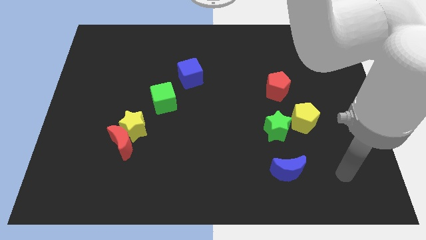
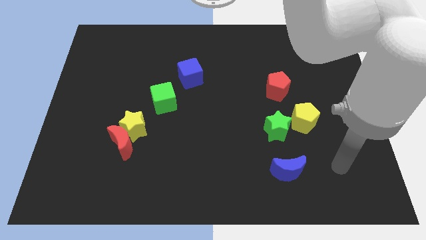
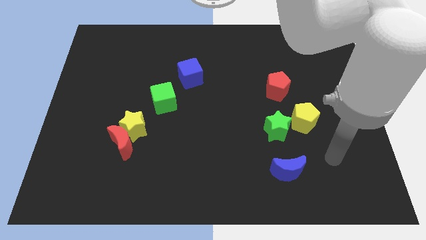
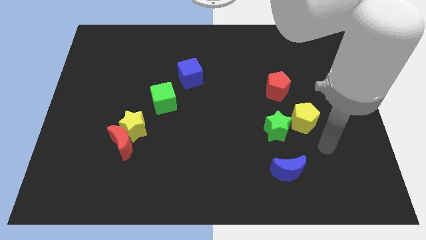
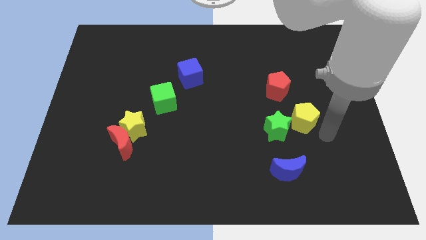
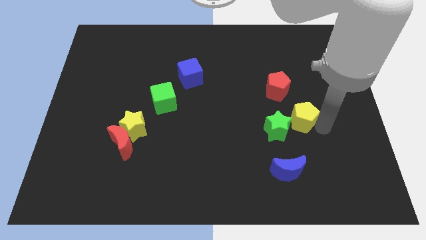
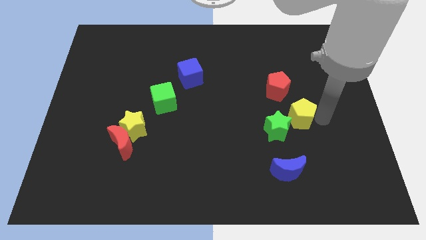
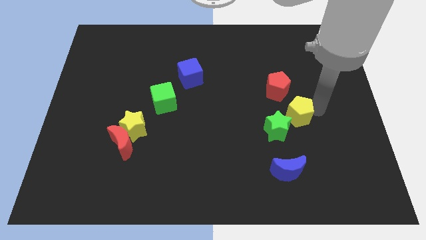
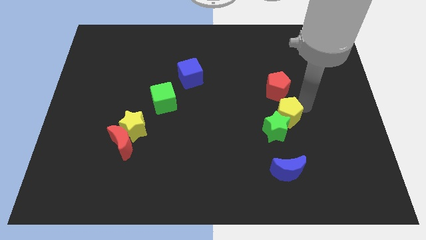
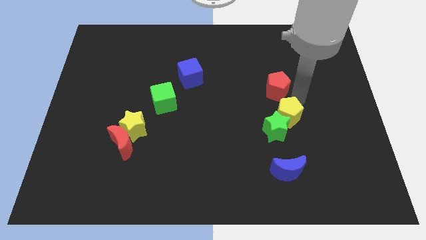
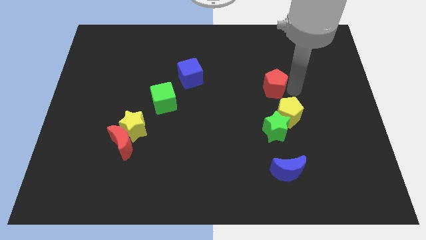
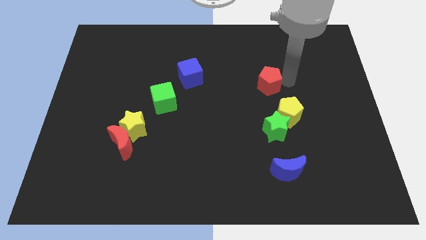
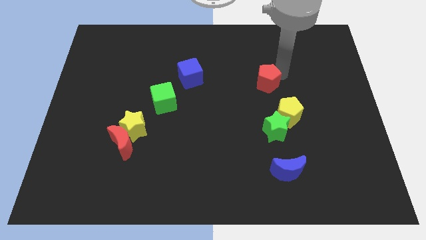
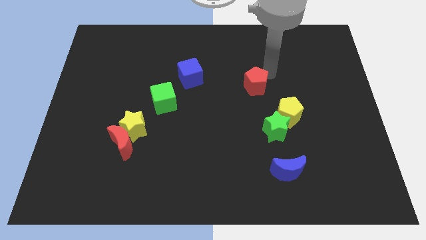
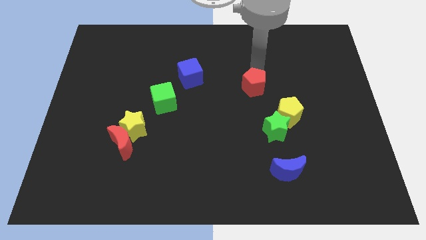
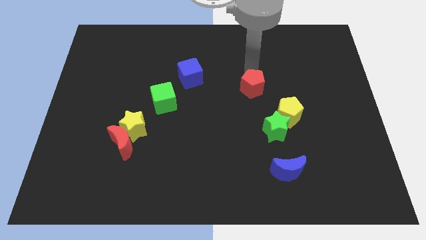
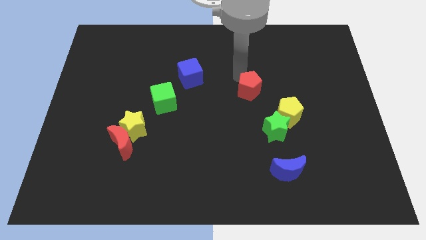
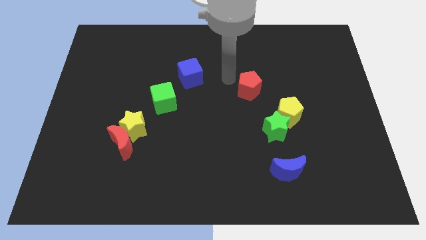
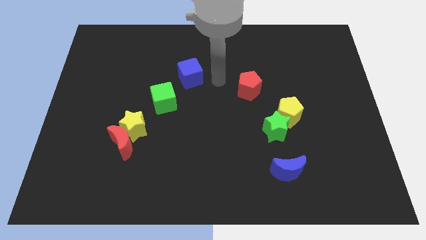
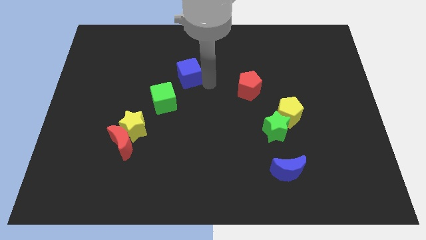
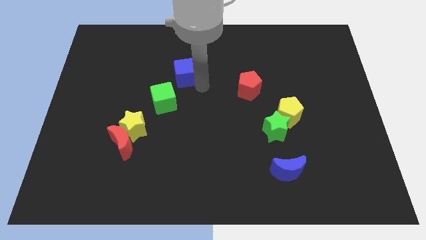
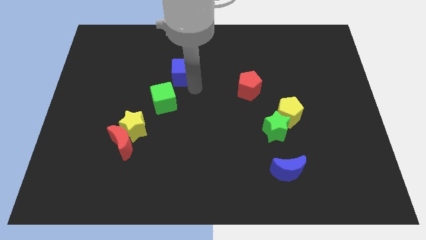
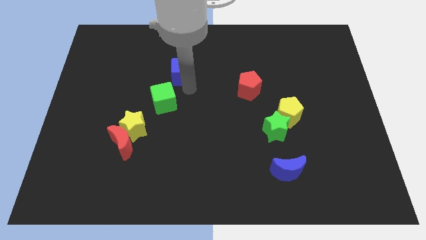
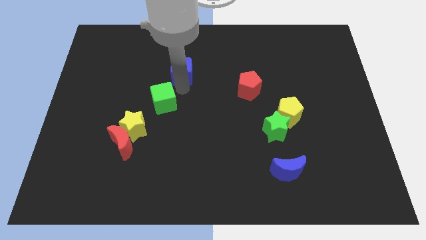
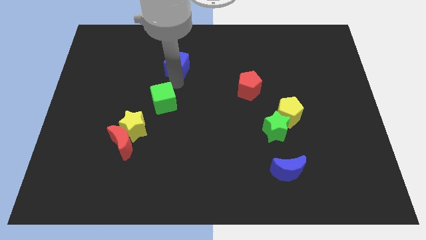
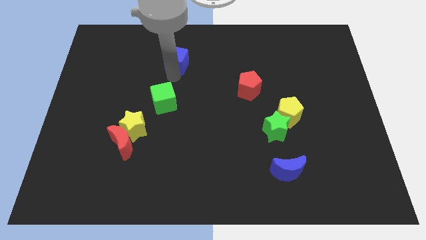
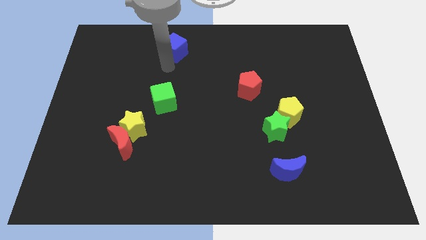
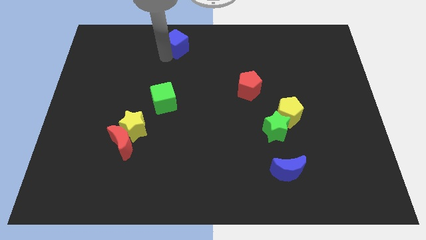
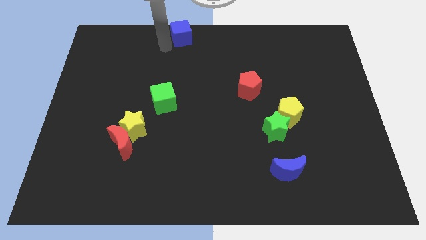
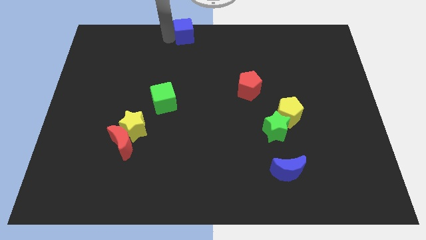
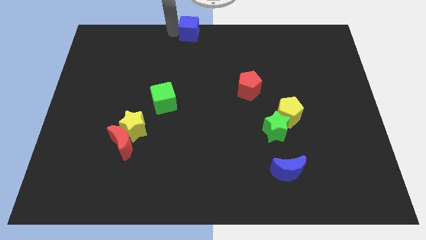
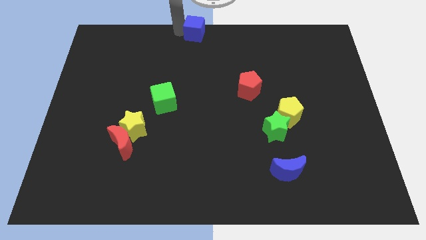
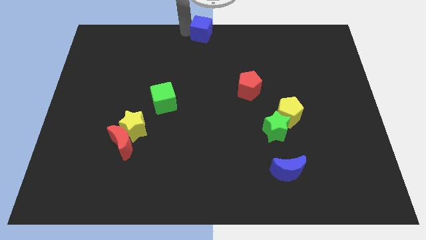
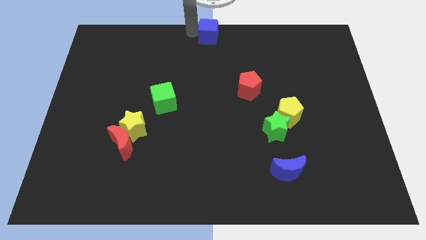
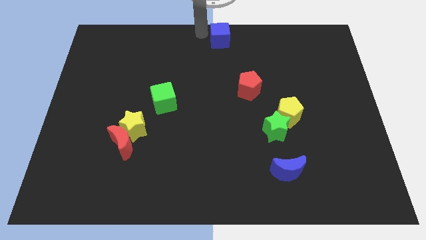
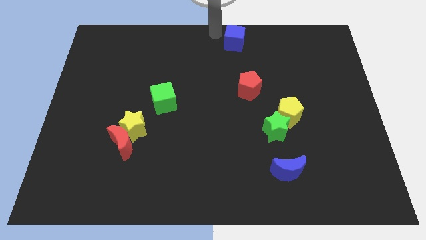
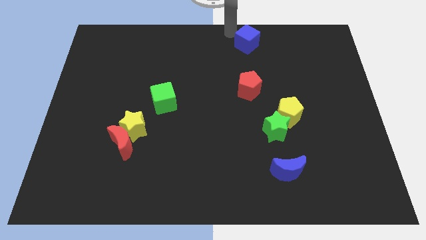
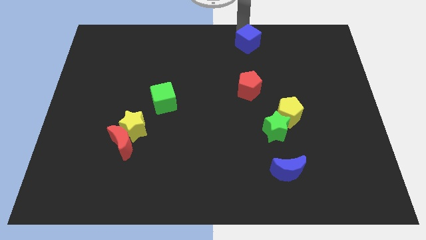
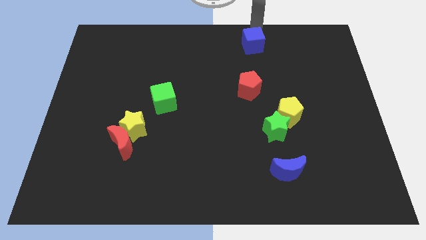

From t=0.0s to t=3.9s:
move the blue cube a little bit right

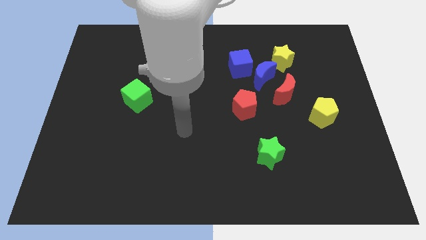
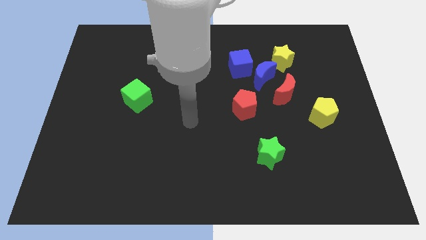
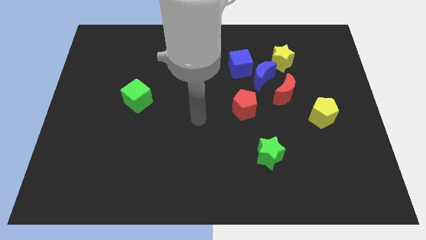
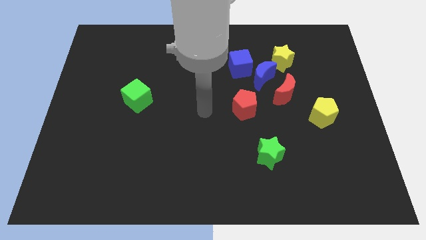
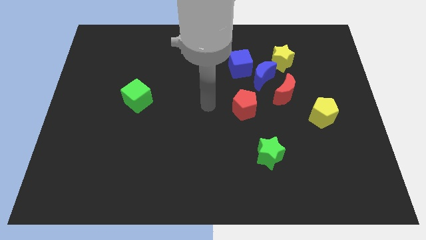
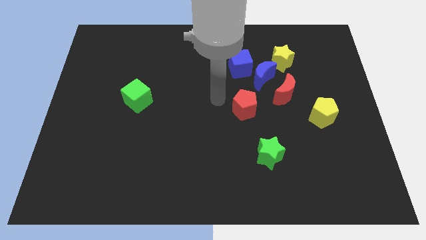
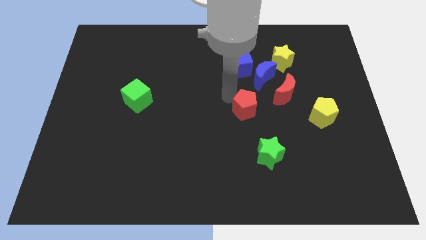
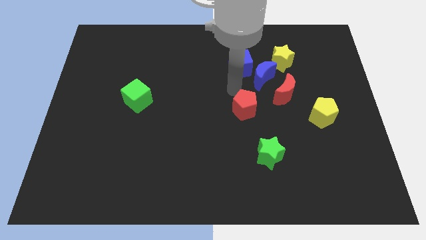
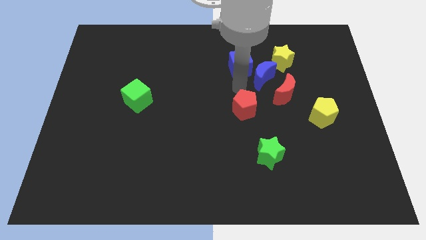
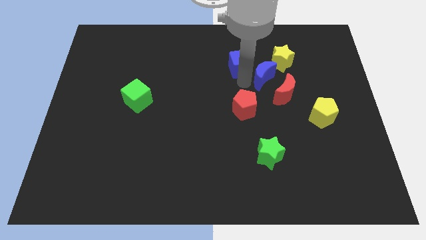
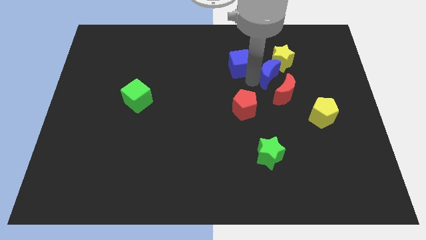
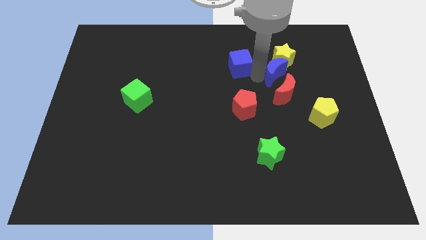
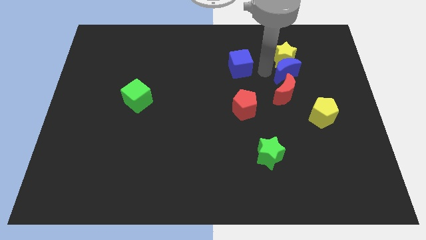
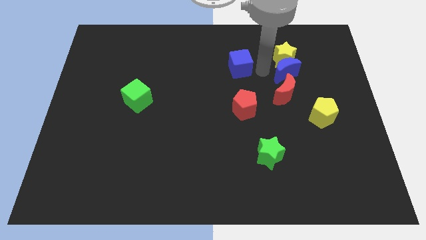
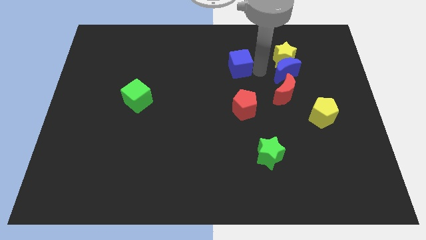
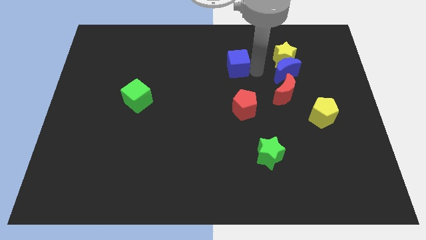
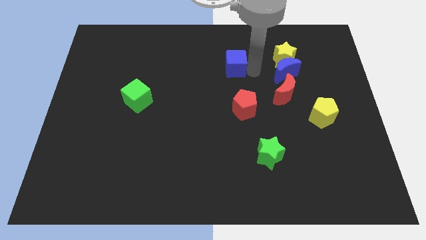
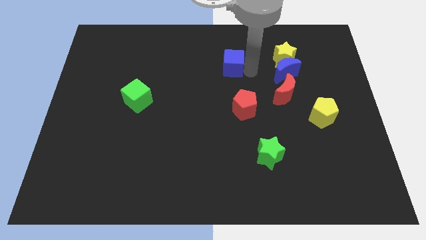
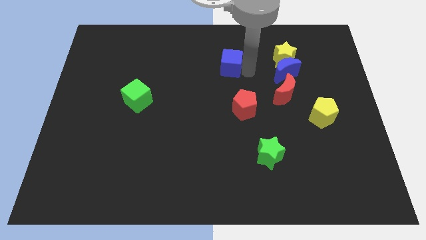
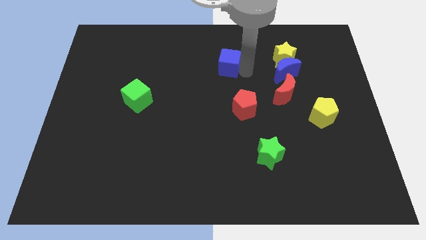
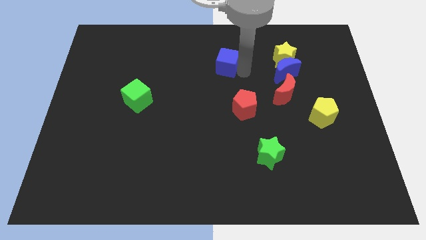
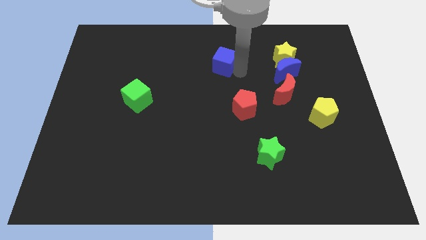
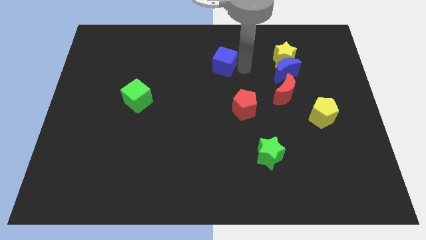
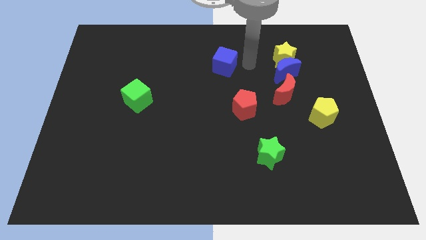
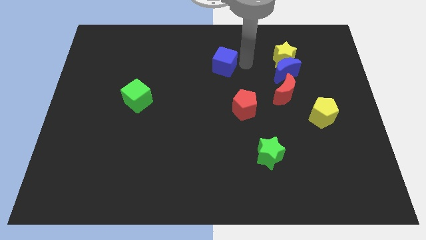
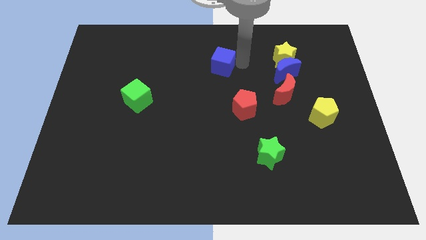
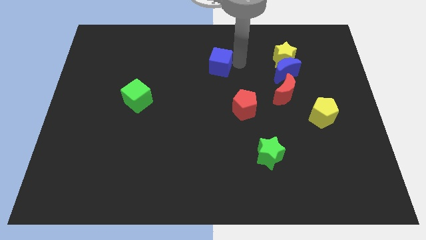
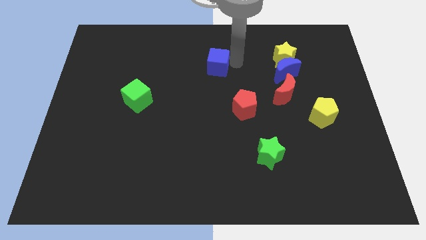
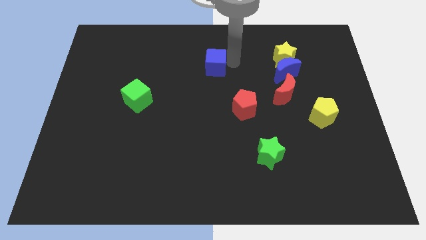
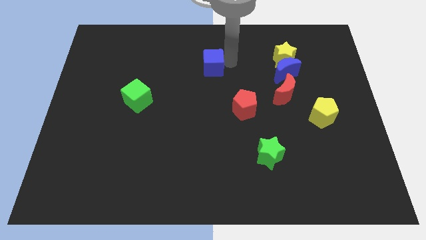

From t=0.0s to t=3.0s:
slightly slide the blue cube to the left

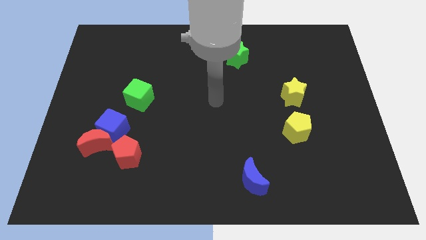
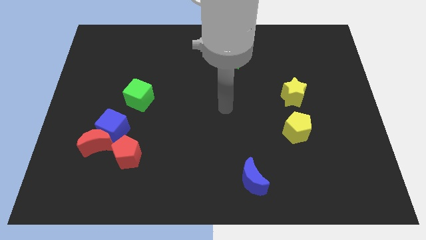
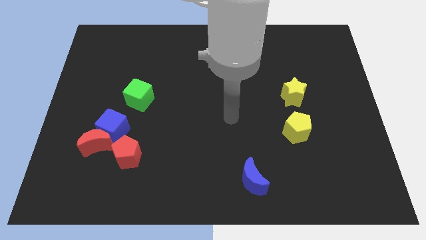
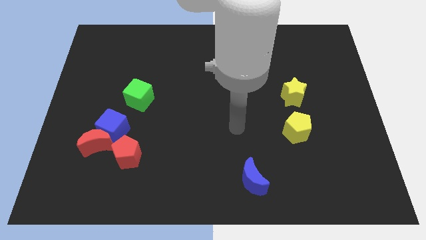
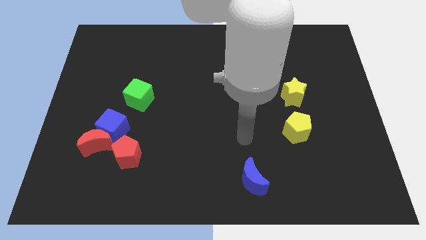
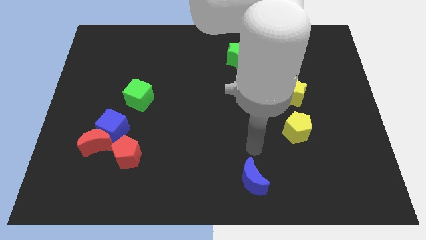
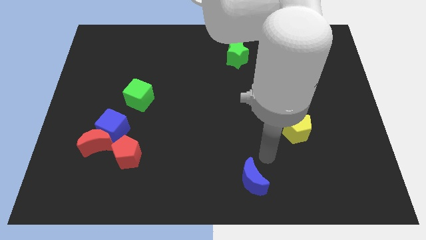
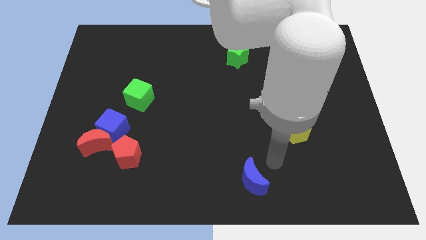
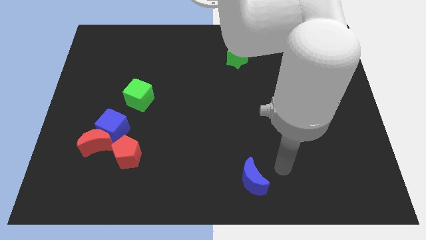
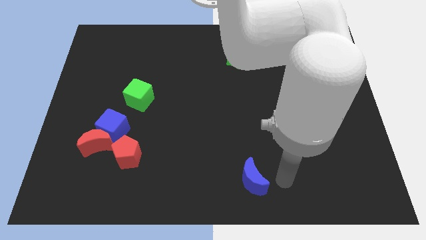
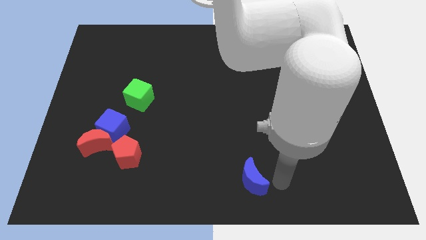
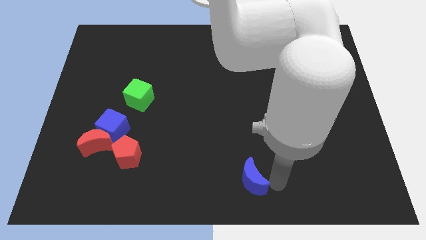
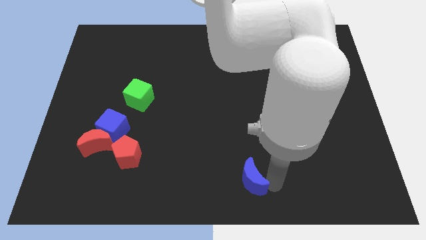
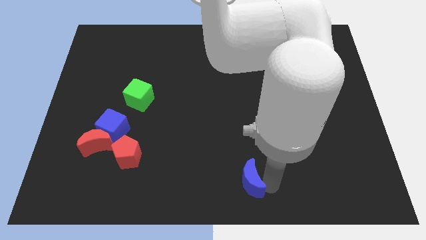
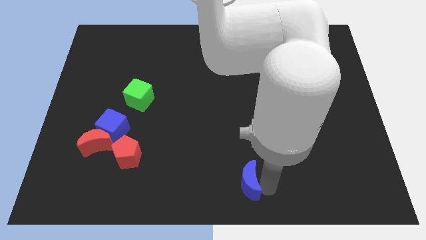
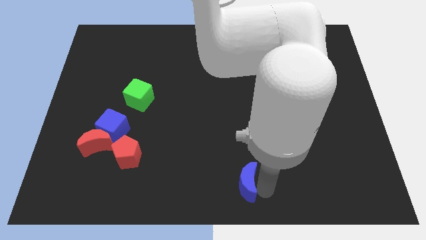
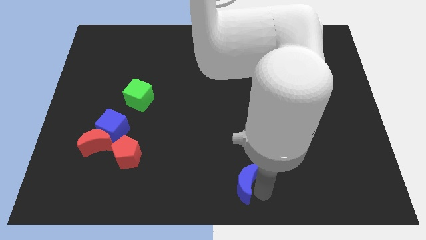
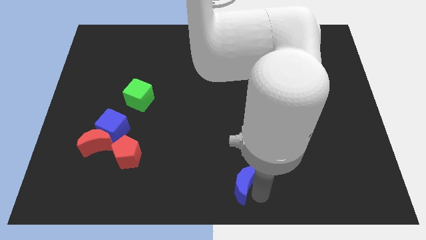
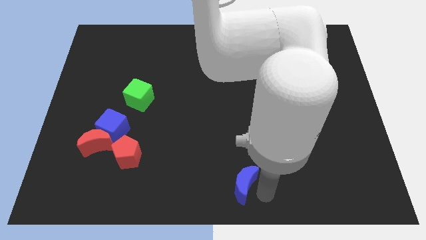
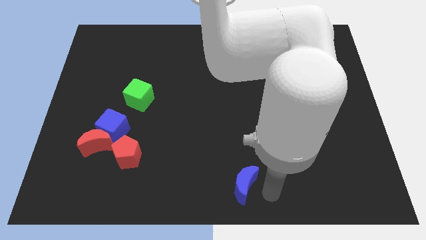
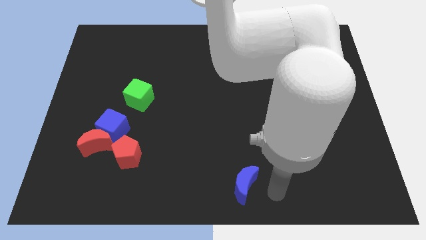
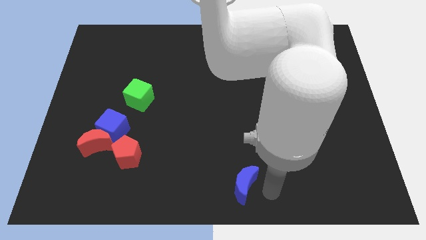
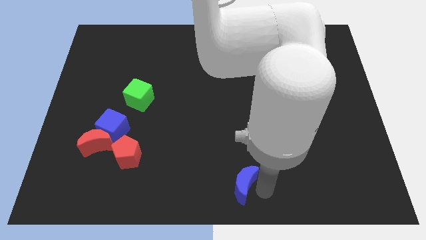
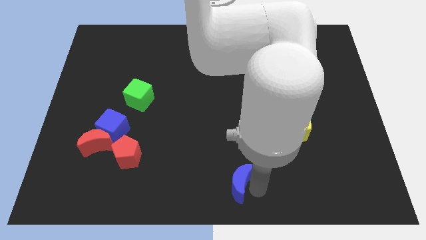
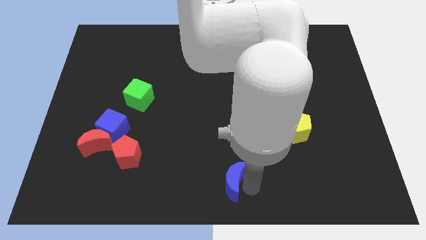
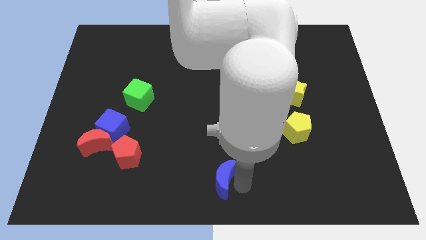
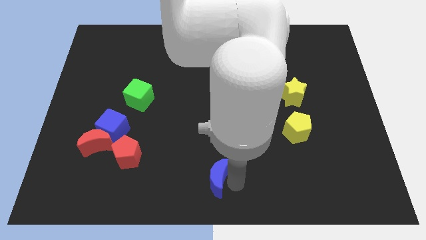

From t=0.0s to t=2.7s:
push the blue moon left a little
